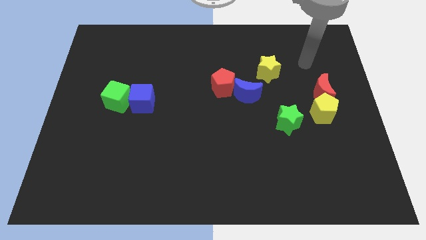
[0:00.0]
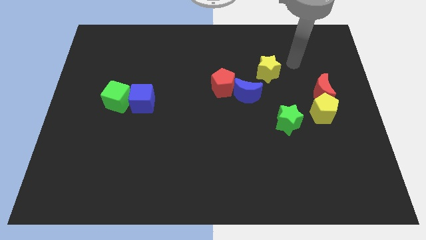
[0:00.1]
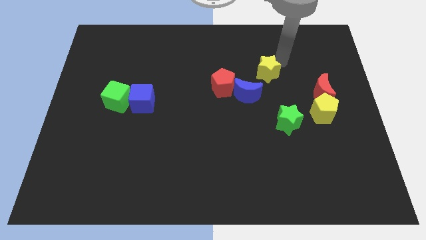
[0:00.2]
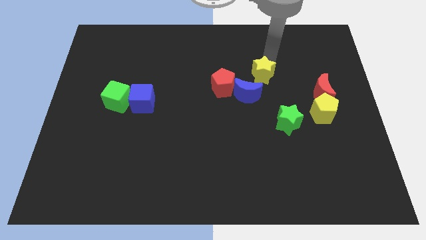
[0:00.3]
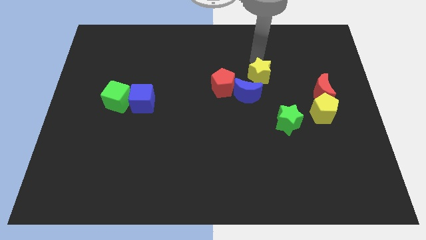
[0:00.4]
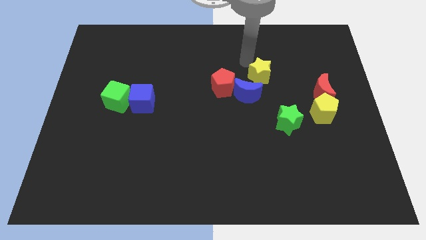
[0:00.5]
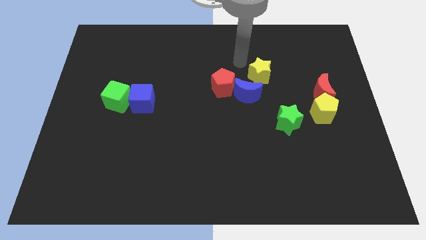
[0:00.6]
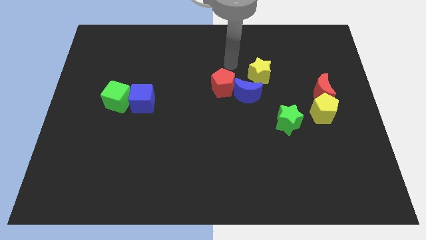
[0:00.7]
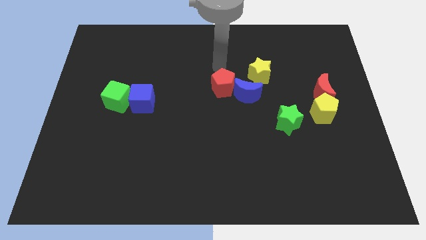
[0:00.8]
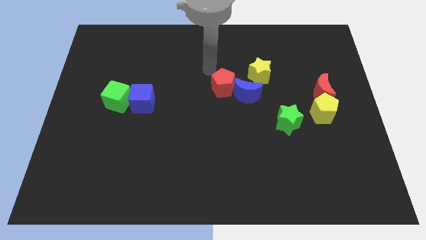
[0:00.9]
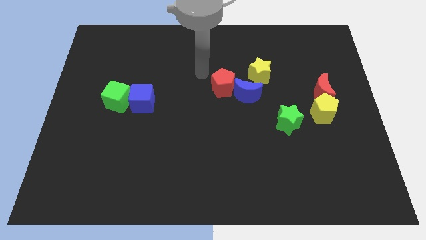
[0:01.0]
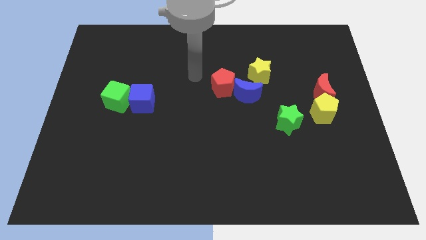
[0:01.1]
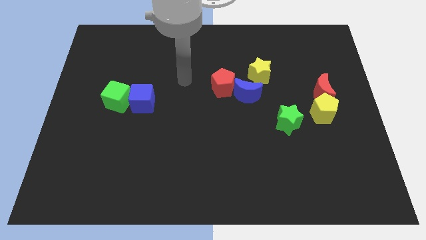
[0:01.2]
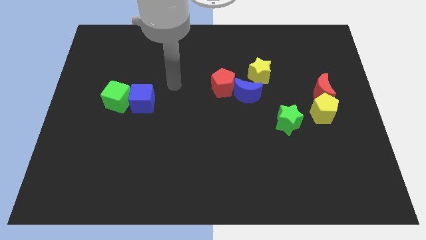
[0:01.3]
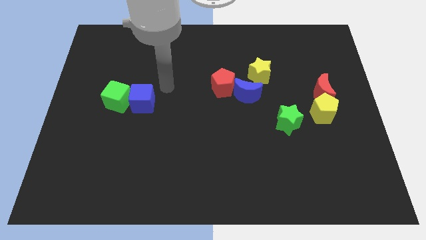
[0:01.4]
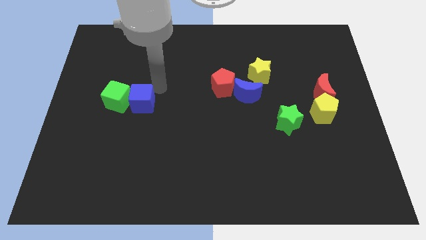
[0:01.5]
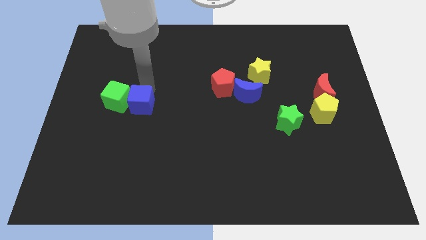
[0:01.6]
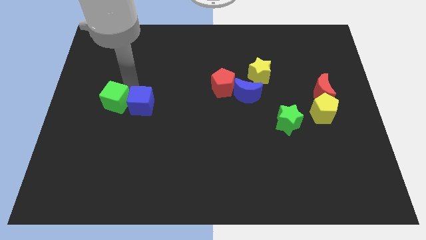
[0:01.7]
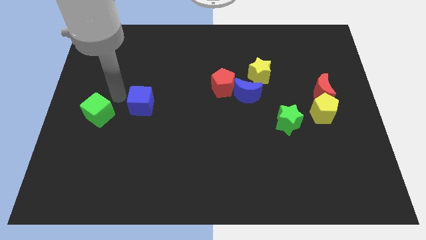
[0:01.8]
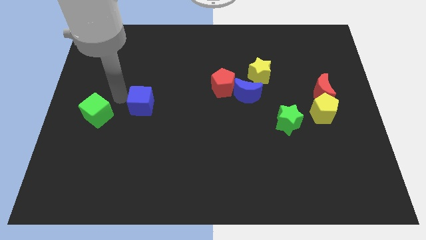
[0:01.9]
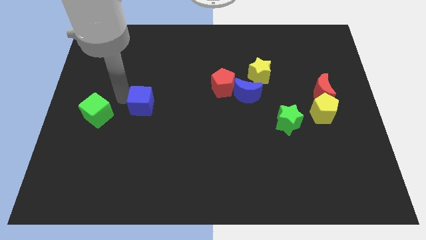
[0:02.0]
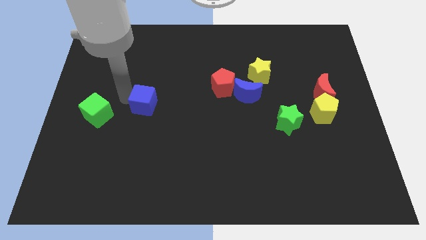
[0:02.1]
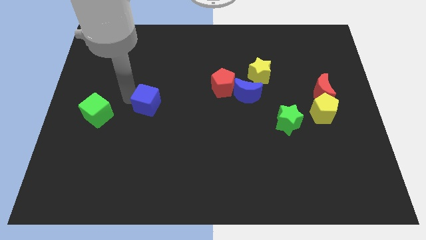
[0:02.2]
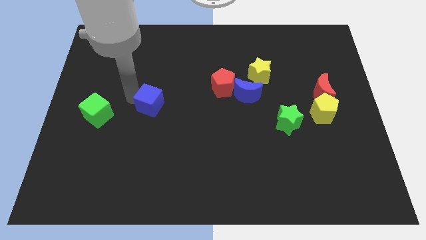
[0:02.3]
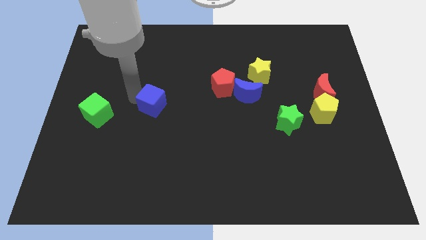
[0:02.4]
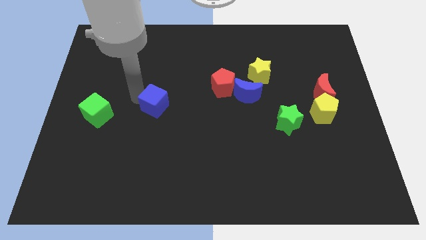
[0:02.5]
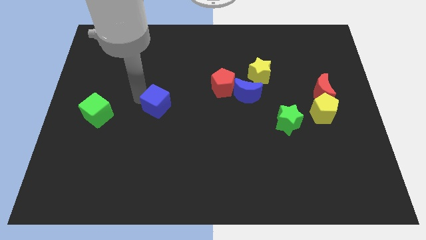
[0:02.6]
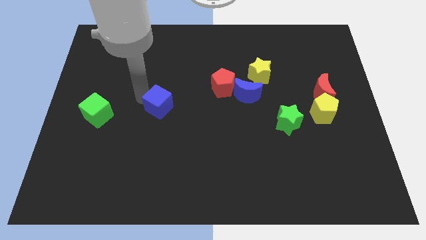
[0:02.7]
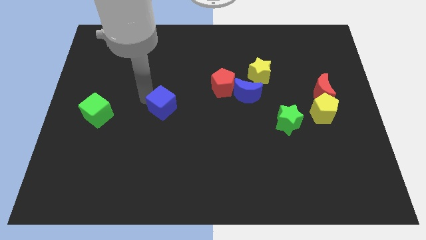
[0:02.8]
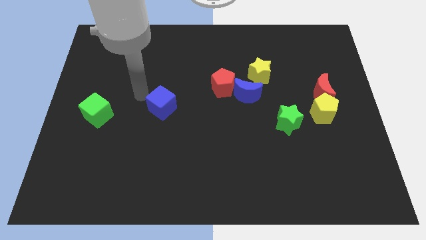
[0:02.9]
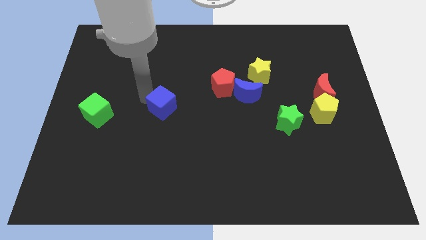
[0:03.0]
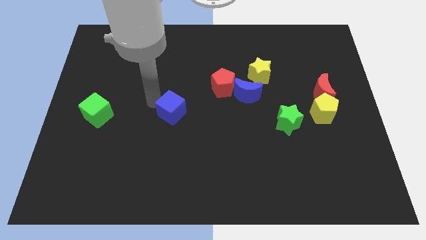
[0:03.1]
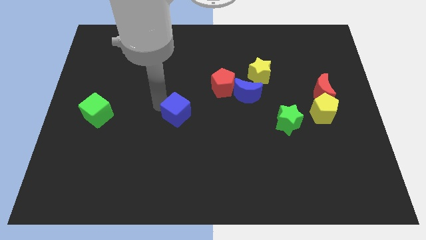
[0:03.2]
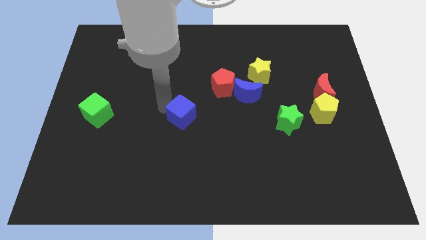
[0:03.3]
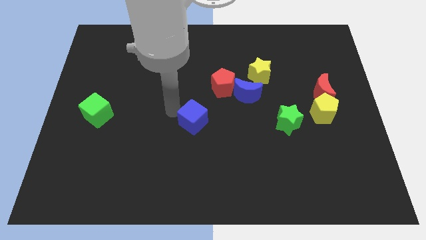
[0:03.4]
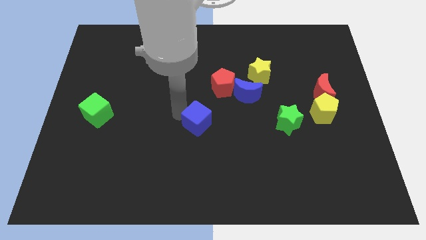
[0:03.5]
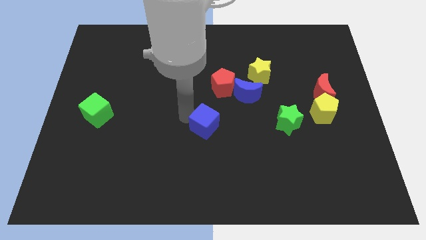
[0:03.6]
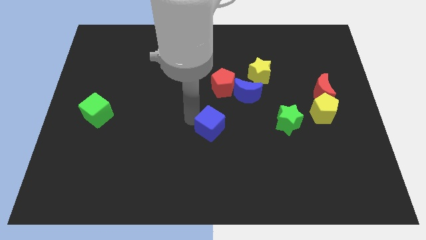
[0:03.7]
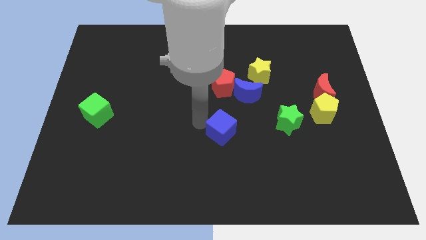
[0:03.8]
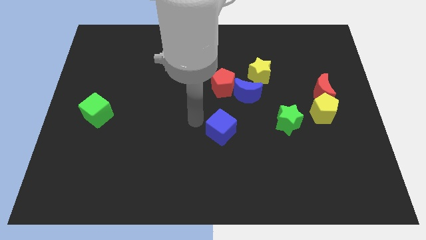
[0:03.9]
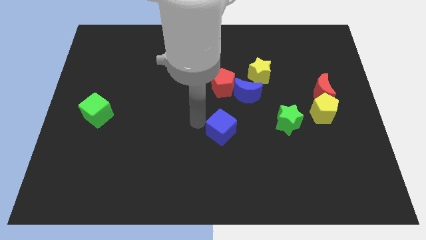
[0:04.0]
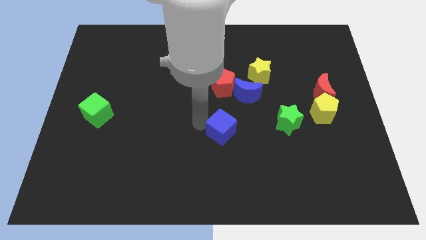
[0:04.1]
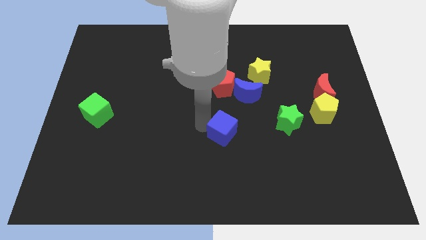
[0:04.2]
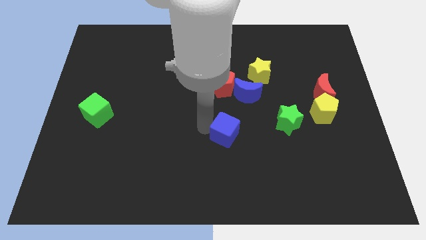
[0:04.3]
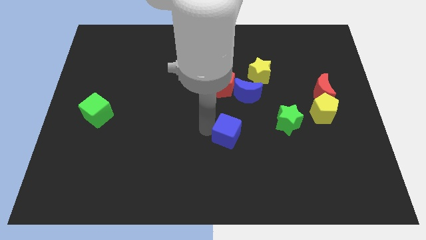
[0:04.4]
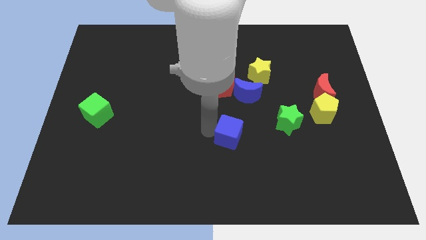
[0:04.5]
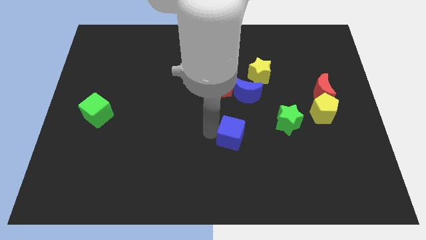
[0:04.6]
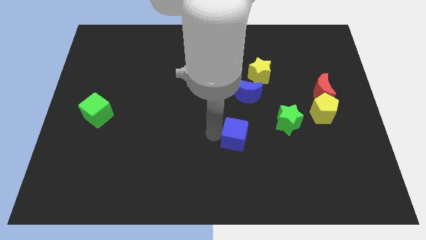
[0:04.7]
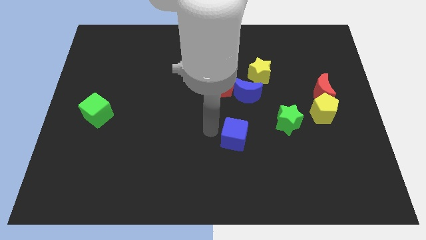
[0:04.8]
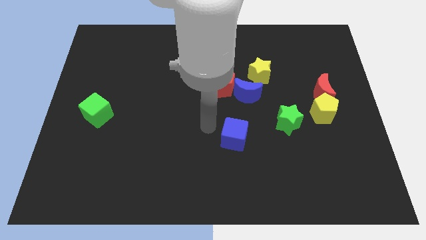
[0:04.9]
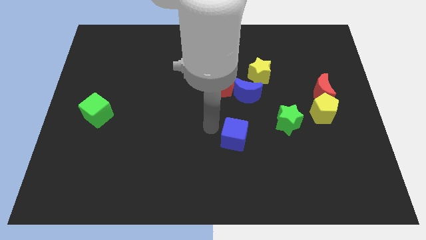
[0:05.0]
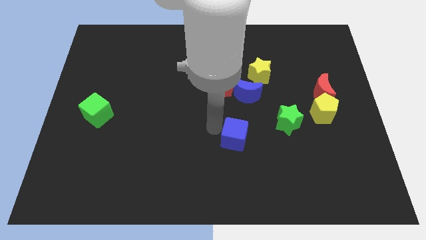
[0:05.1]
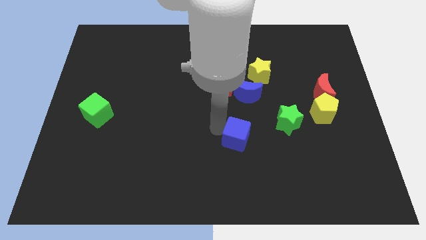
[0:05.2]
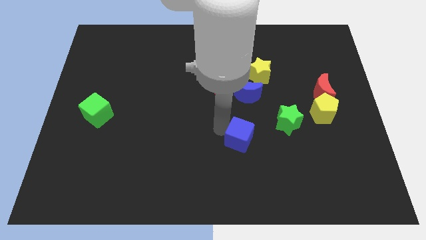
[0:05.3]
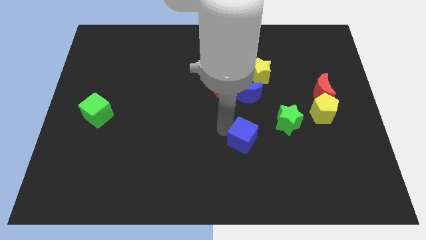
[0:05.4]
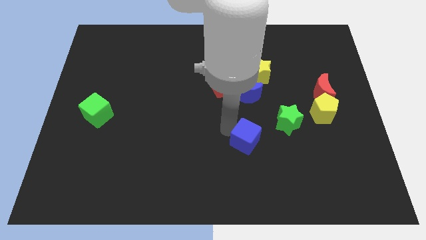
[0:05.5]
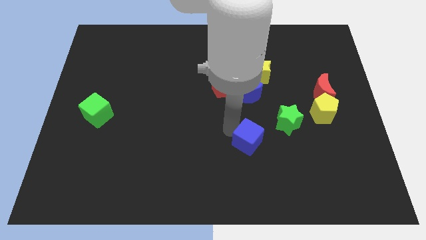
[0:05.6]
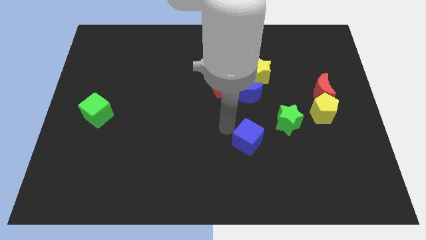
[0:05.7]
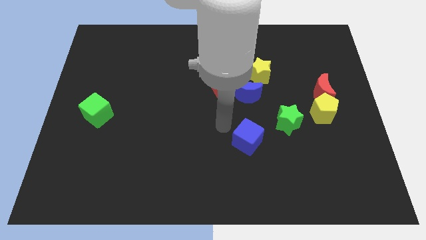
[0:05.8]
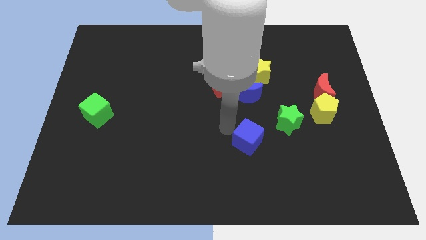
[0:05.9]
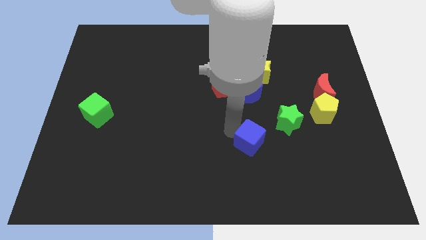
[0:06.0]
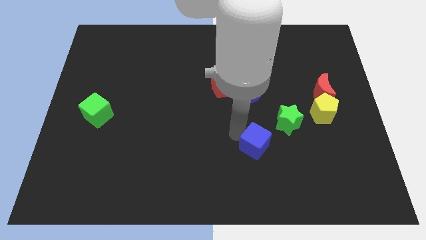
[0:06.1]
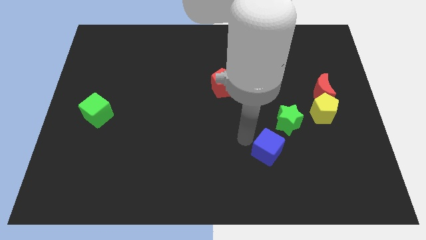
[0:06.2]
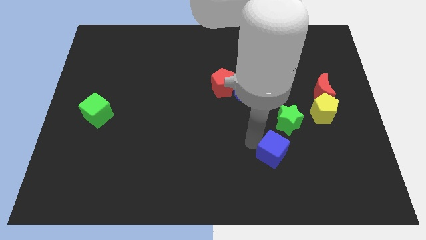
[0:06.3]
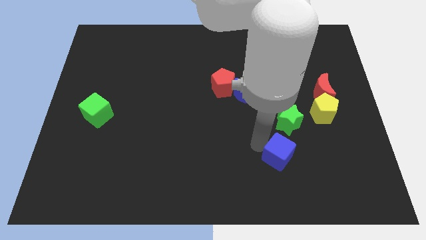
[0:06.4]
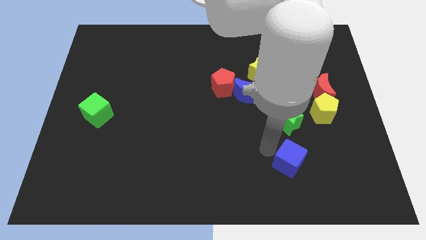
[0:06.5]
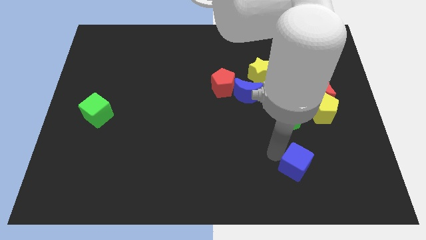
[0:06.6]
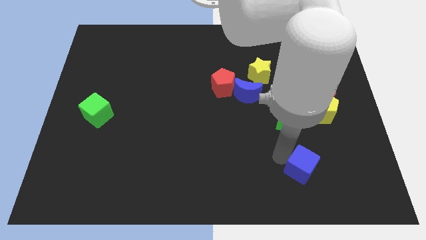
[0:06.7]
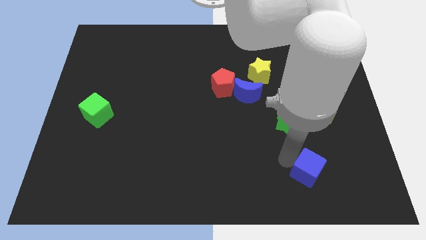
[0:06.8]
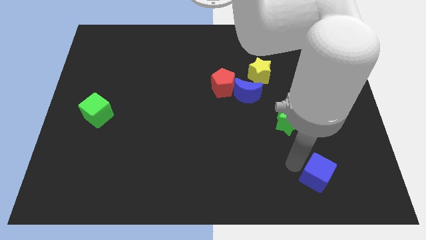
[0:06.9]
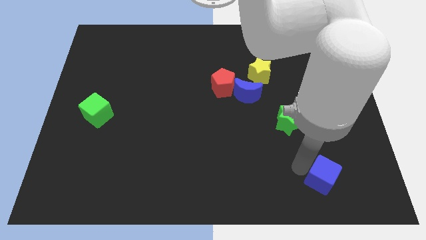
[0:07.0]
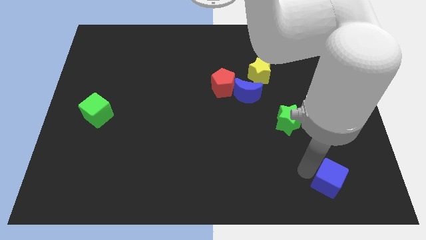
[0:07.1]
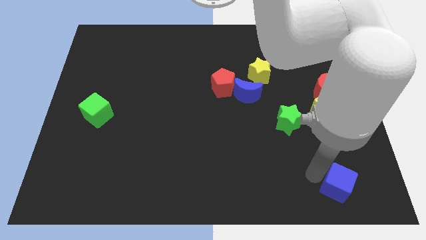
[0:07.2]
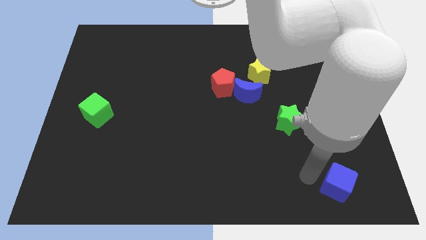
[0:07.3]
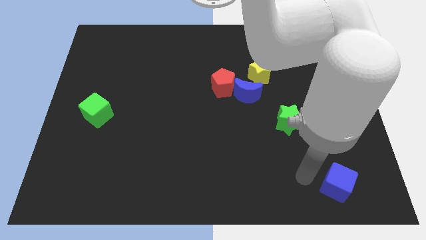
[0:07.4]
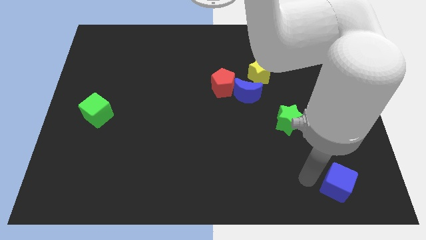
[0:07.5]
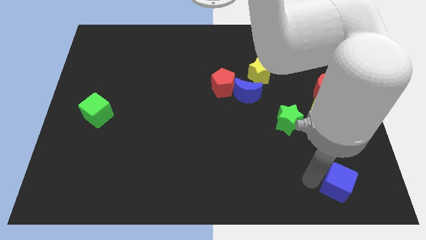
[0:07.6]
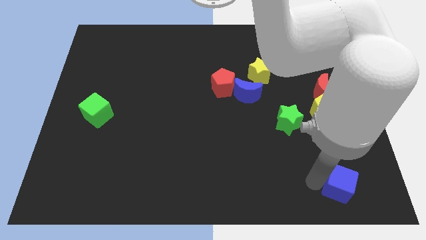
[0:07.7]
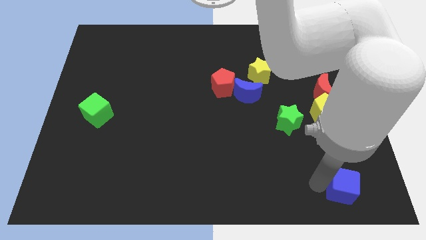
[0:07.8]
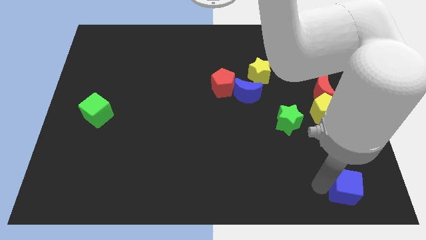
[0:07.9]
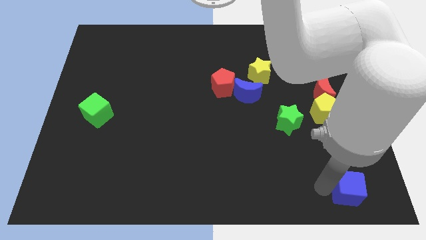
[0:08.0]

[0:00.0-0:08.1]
move the blue cube to the lower right corner
